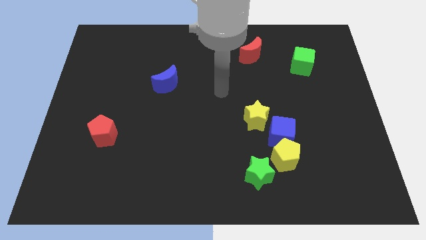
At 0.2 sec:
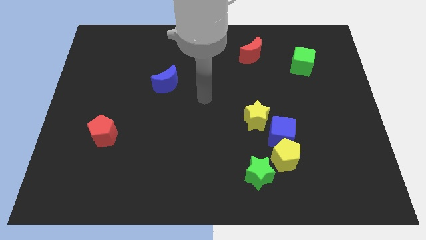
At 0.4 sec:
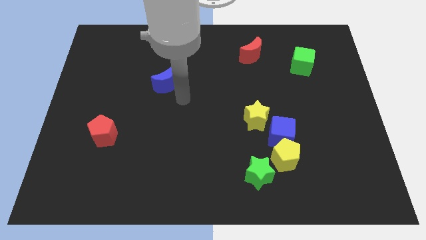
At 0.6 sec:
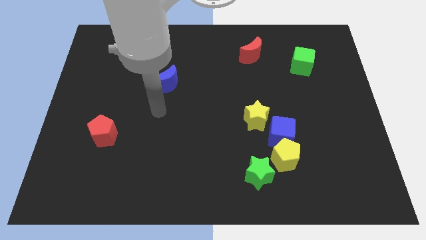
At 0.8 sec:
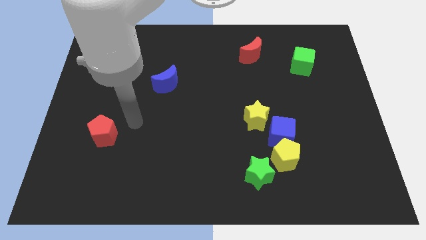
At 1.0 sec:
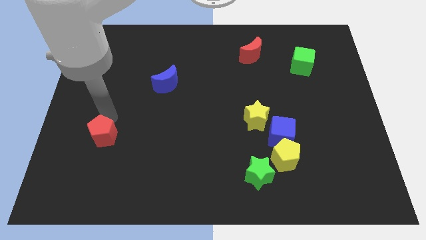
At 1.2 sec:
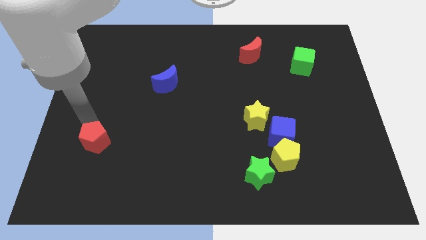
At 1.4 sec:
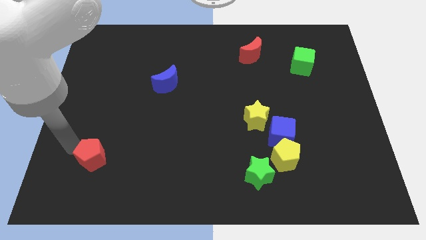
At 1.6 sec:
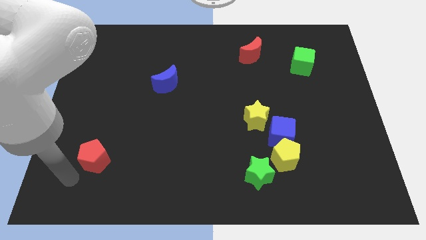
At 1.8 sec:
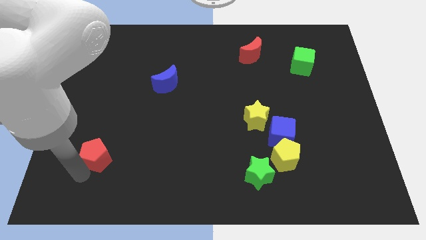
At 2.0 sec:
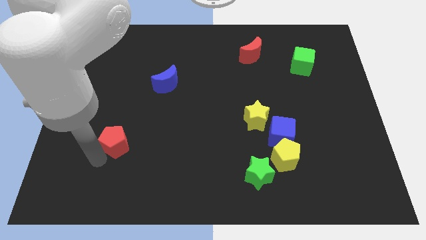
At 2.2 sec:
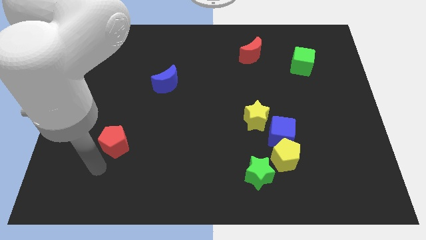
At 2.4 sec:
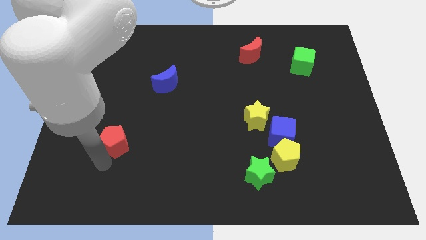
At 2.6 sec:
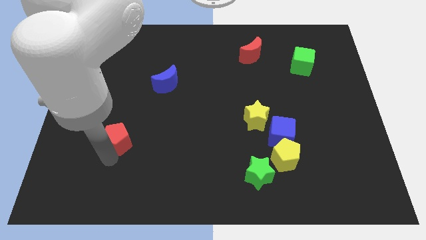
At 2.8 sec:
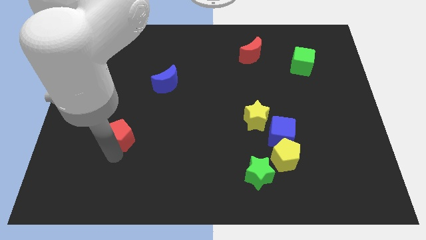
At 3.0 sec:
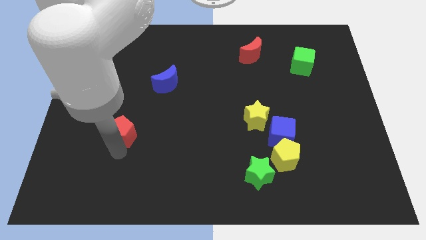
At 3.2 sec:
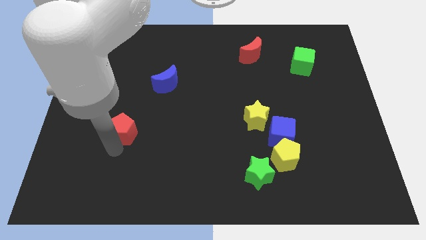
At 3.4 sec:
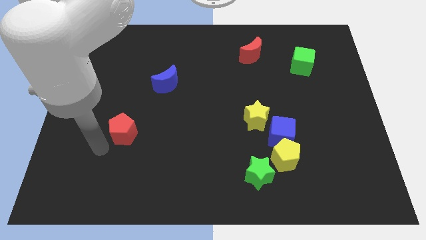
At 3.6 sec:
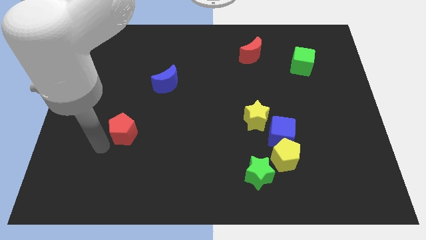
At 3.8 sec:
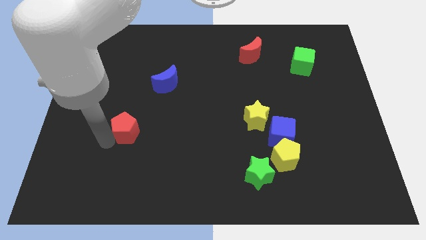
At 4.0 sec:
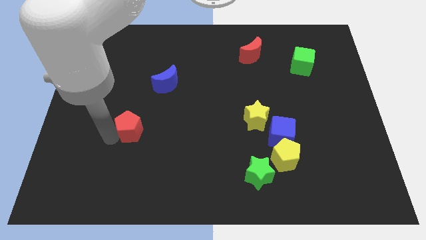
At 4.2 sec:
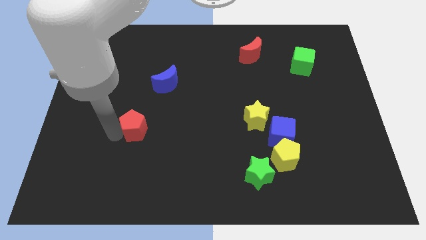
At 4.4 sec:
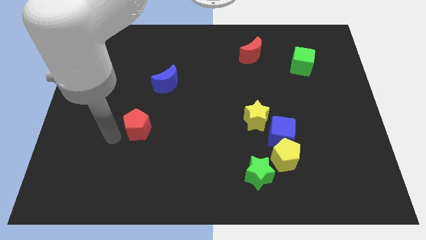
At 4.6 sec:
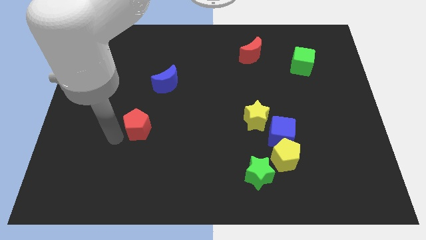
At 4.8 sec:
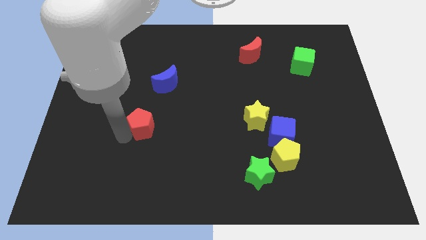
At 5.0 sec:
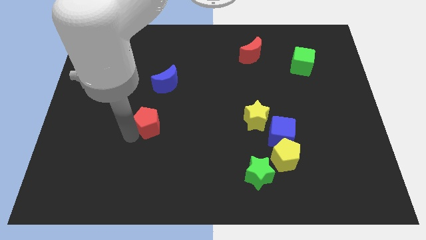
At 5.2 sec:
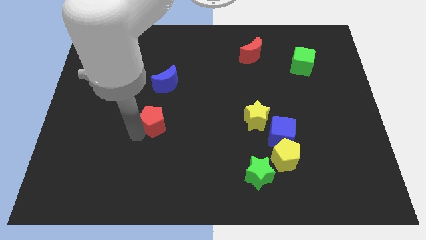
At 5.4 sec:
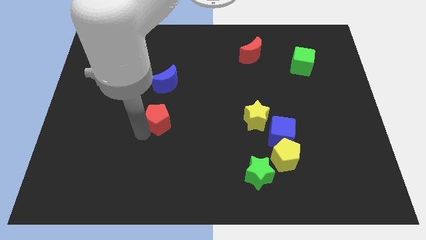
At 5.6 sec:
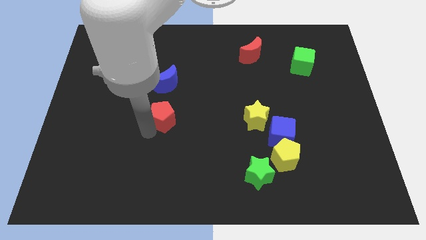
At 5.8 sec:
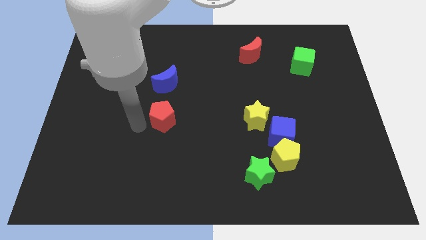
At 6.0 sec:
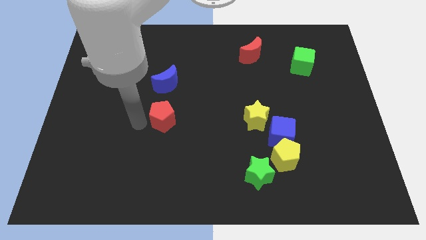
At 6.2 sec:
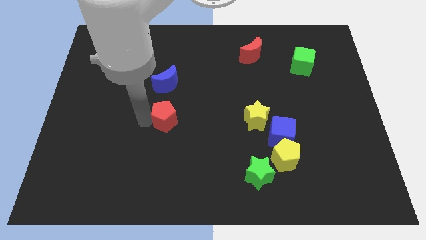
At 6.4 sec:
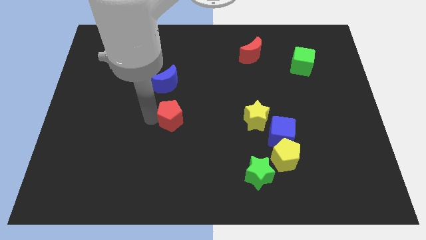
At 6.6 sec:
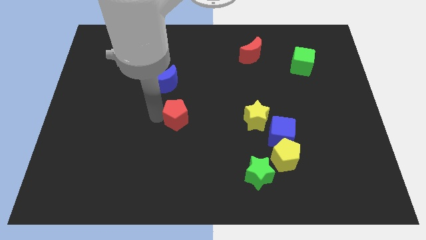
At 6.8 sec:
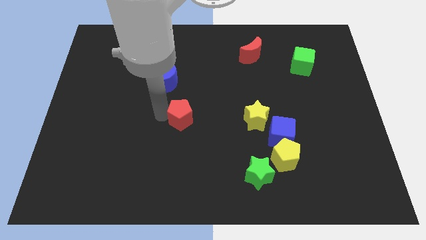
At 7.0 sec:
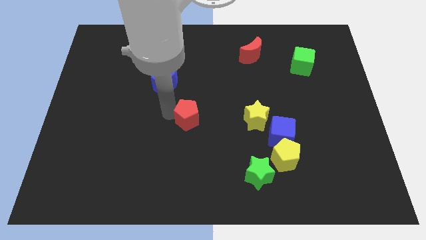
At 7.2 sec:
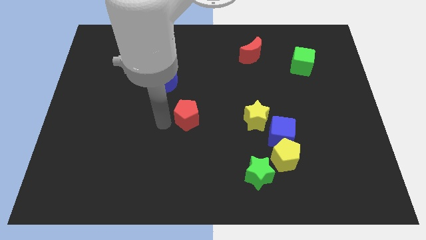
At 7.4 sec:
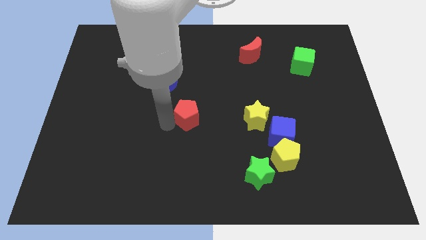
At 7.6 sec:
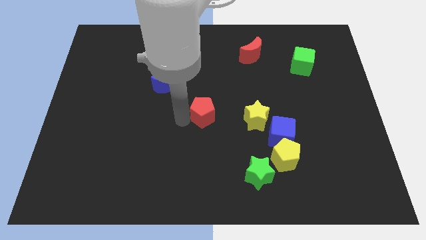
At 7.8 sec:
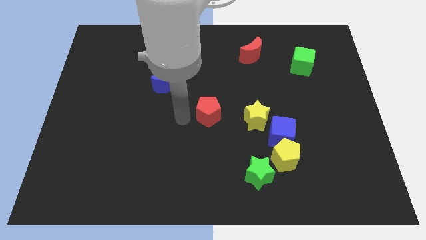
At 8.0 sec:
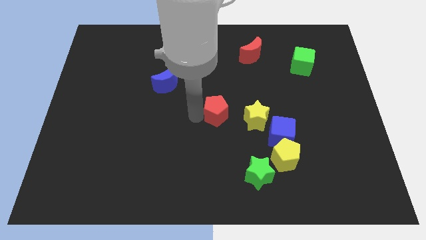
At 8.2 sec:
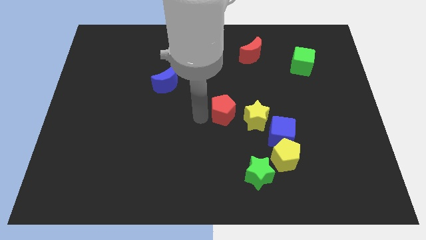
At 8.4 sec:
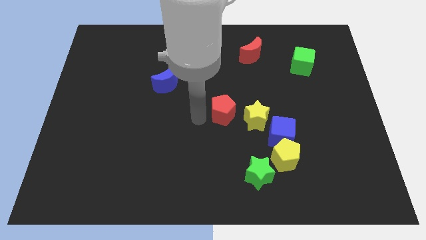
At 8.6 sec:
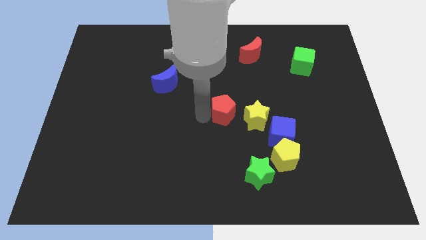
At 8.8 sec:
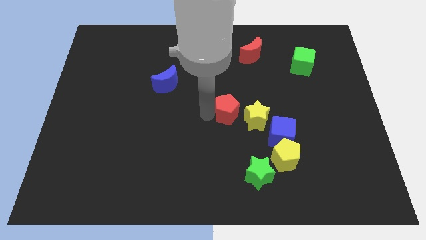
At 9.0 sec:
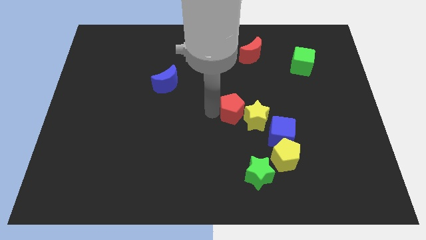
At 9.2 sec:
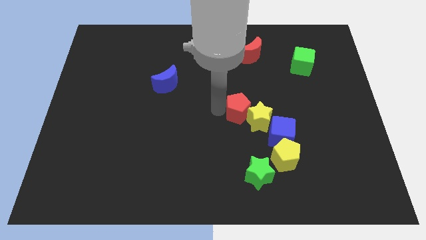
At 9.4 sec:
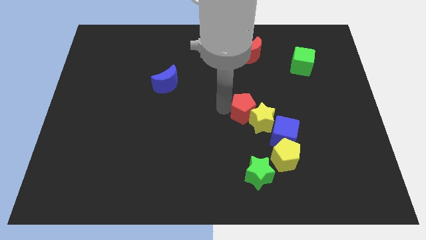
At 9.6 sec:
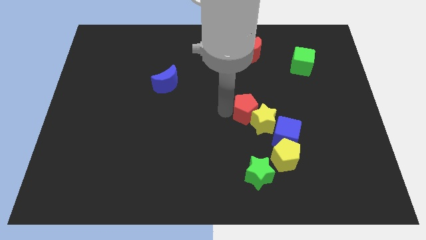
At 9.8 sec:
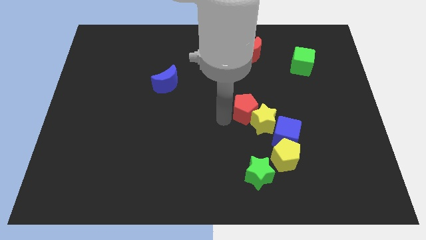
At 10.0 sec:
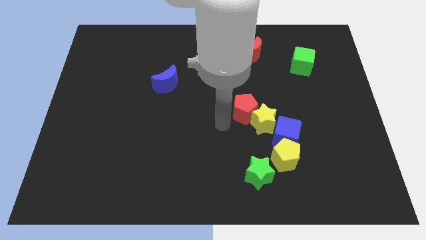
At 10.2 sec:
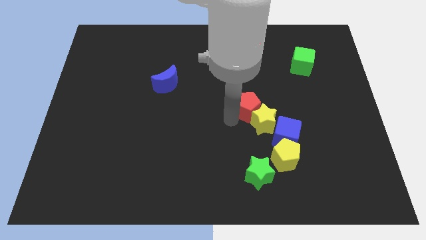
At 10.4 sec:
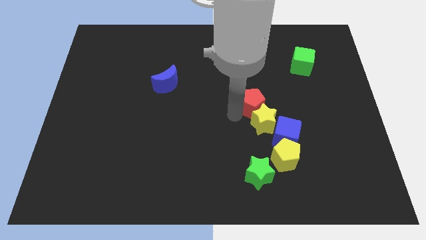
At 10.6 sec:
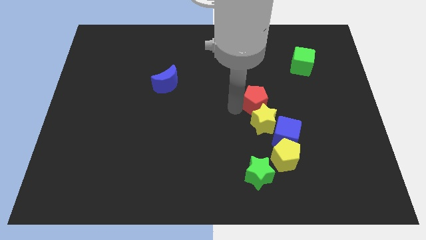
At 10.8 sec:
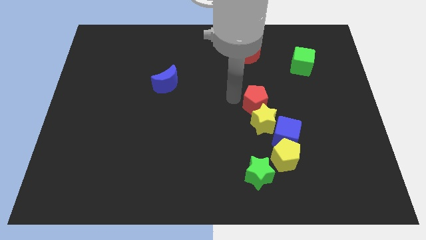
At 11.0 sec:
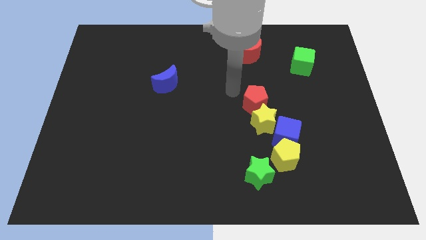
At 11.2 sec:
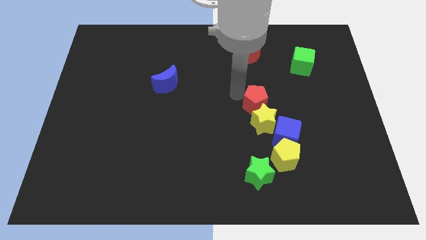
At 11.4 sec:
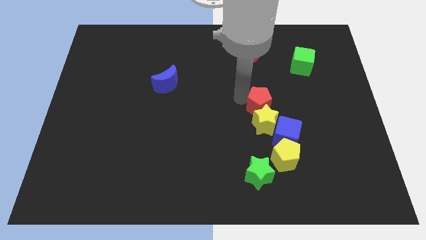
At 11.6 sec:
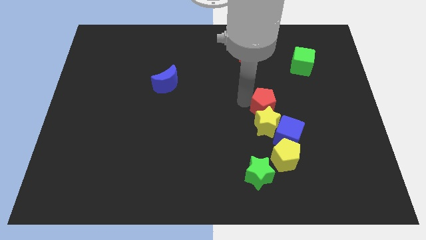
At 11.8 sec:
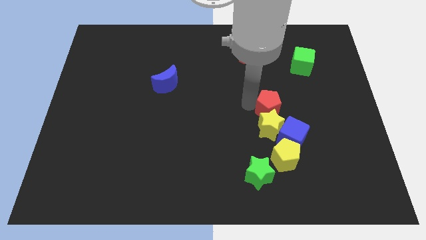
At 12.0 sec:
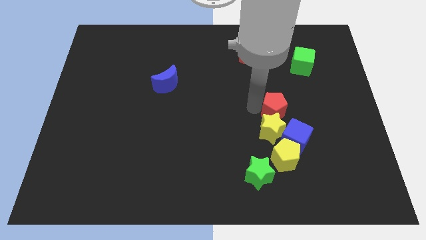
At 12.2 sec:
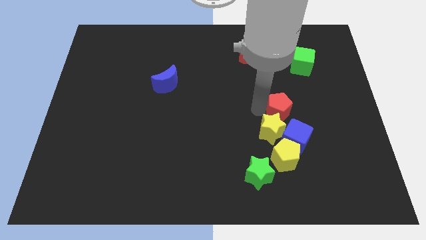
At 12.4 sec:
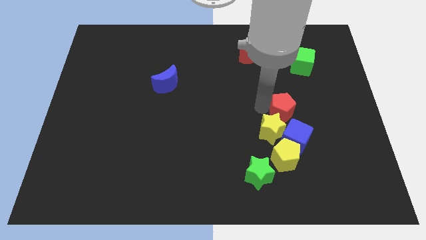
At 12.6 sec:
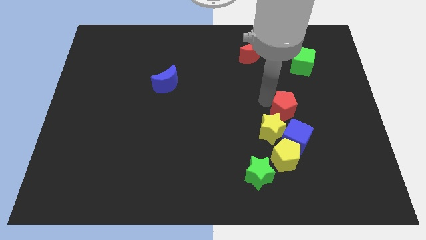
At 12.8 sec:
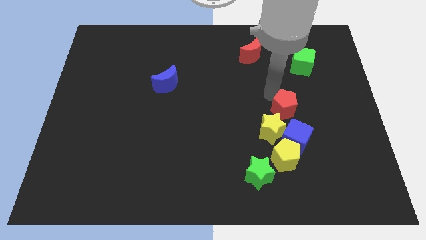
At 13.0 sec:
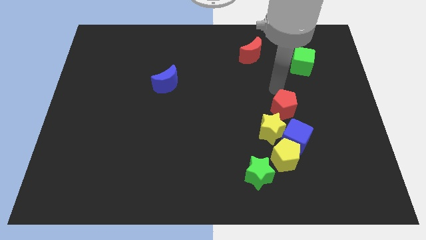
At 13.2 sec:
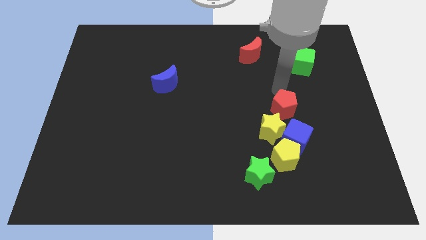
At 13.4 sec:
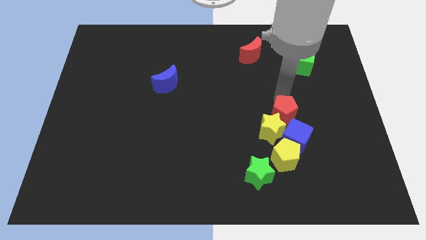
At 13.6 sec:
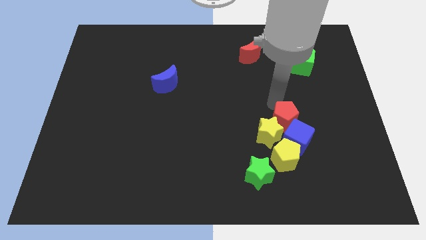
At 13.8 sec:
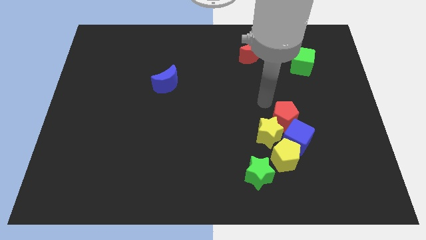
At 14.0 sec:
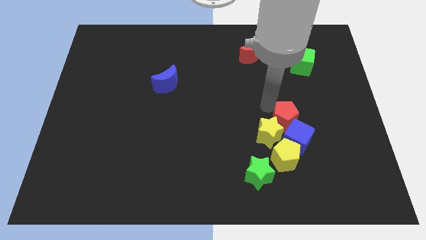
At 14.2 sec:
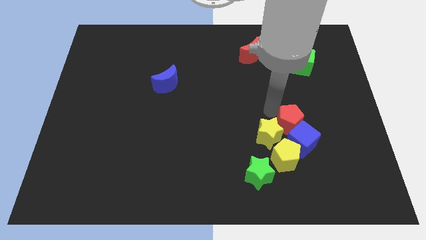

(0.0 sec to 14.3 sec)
put the red pentagon diagonally up and to the right of the yellow pentagon
